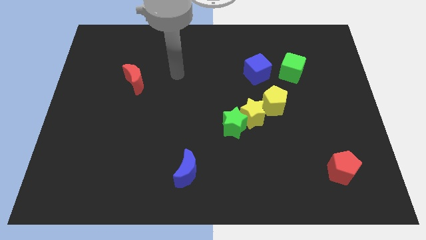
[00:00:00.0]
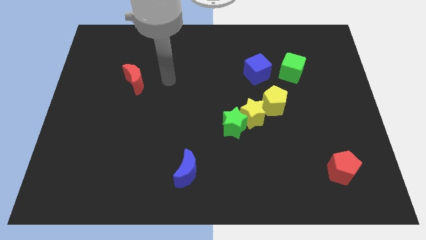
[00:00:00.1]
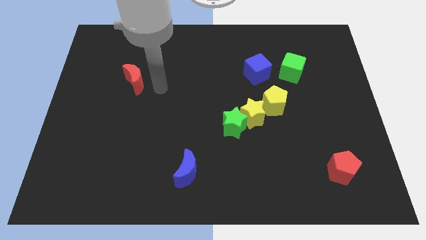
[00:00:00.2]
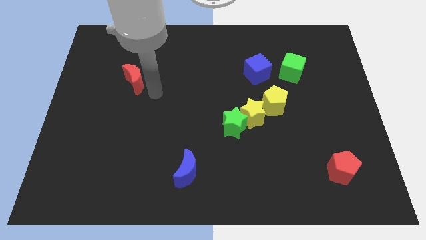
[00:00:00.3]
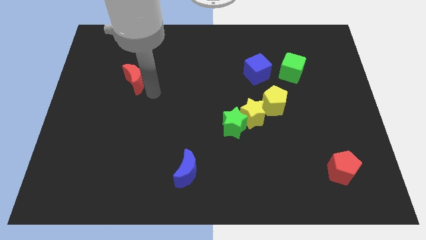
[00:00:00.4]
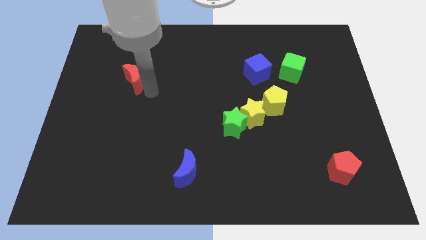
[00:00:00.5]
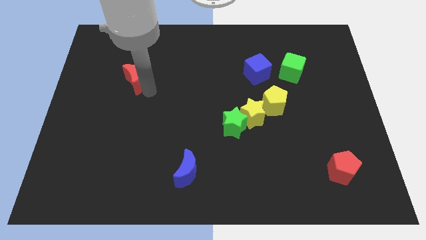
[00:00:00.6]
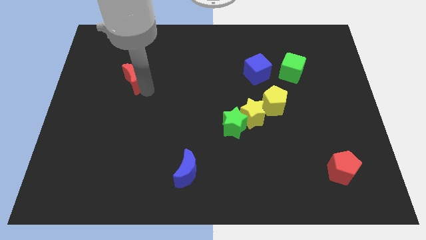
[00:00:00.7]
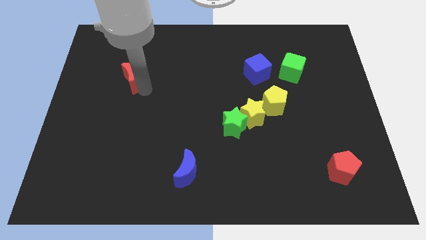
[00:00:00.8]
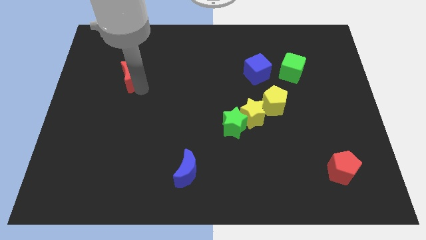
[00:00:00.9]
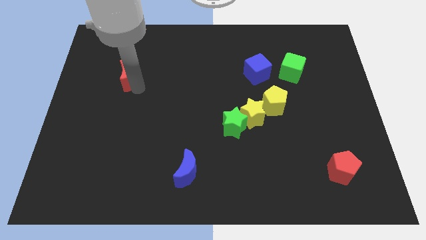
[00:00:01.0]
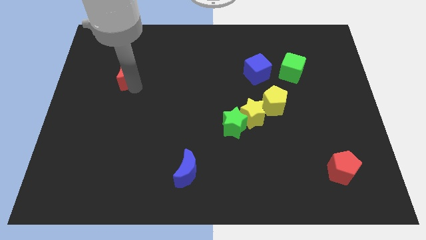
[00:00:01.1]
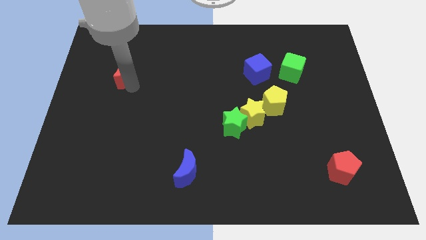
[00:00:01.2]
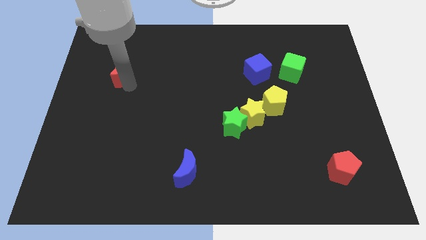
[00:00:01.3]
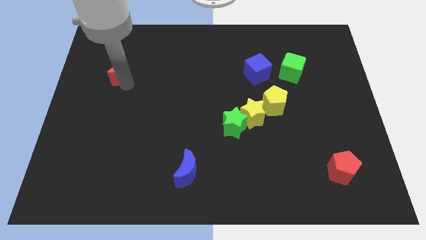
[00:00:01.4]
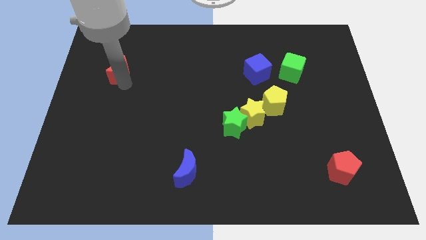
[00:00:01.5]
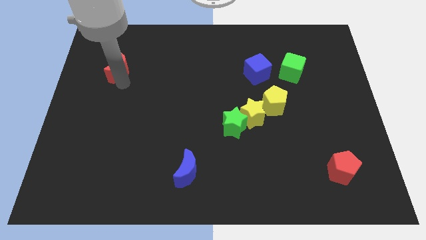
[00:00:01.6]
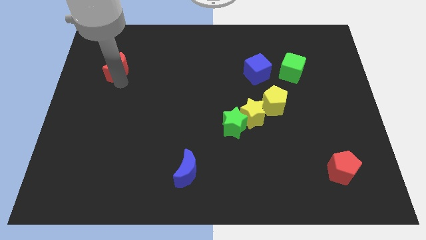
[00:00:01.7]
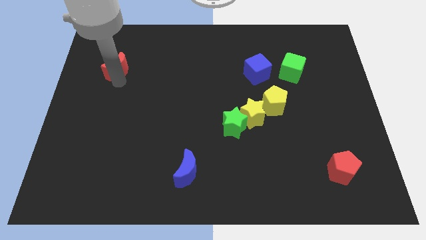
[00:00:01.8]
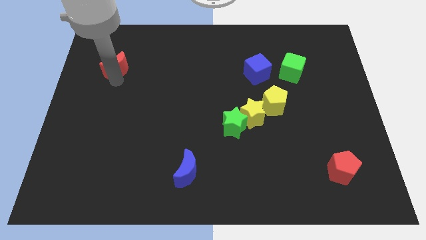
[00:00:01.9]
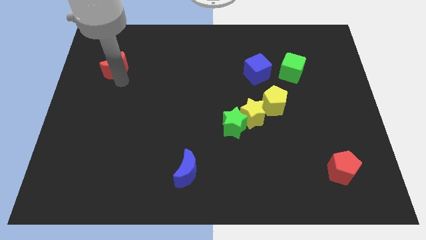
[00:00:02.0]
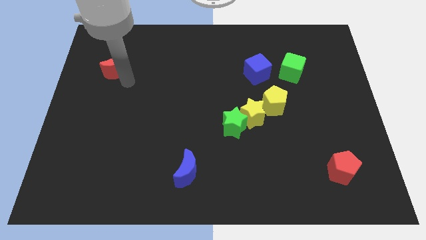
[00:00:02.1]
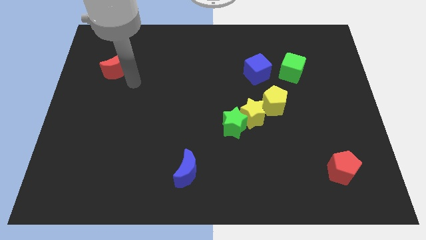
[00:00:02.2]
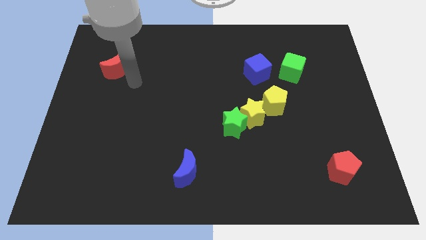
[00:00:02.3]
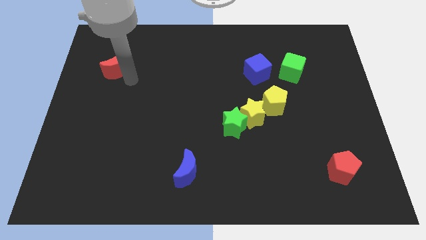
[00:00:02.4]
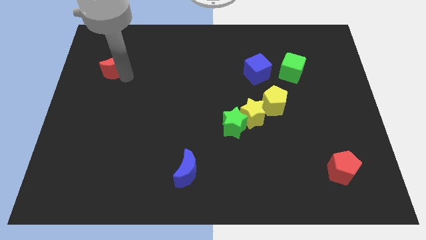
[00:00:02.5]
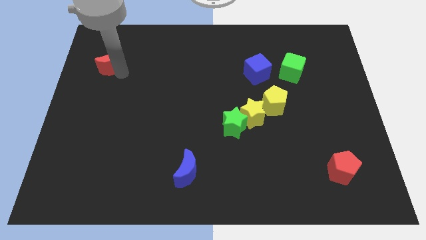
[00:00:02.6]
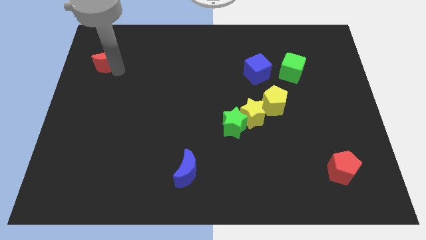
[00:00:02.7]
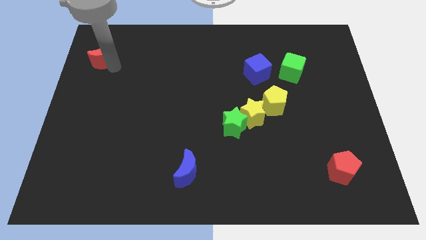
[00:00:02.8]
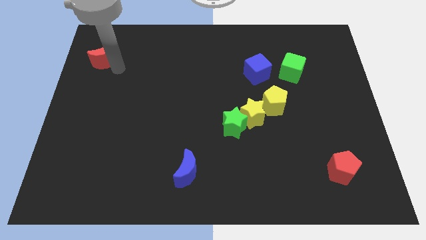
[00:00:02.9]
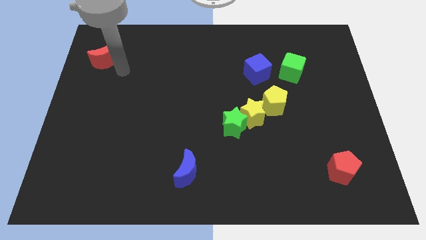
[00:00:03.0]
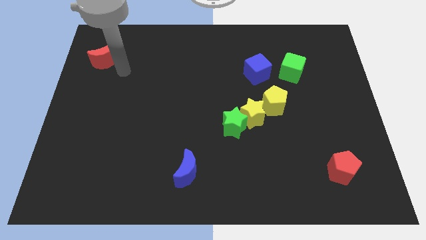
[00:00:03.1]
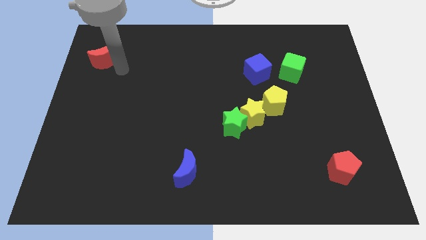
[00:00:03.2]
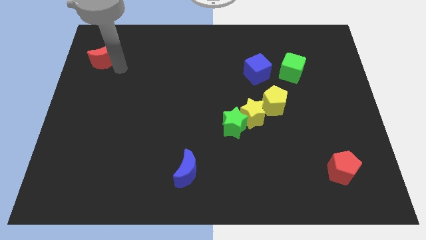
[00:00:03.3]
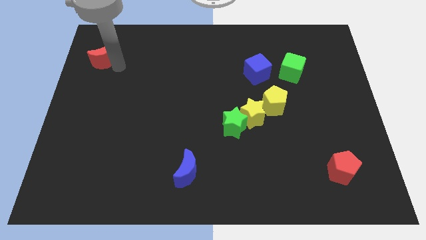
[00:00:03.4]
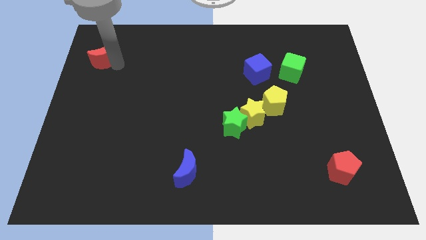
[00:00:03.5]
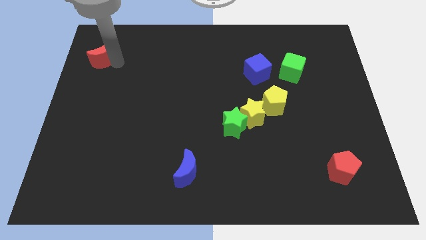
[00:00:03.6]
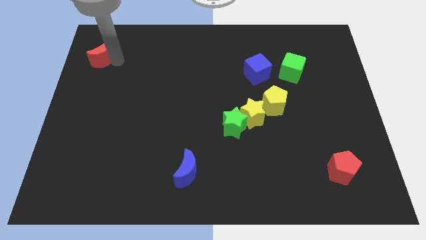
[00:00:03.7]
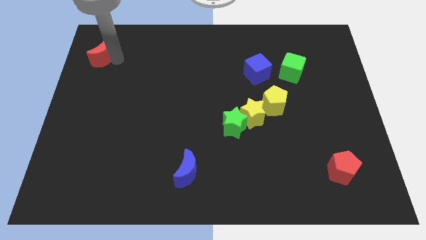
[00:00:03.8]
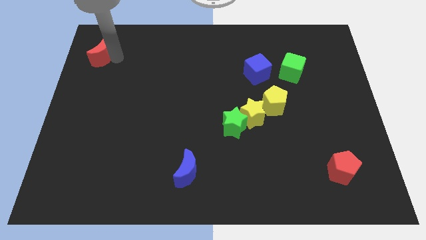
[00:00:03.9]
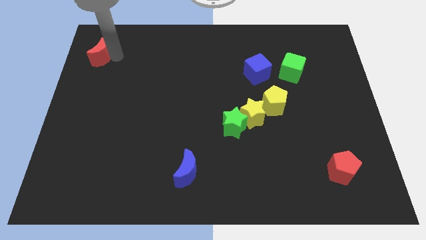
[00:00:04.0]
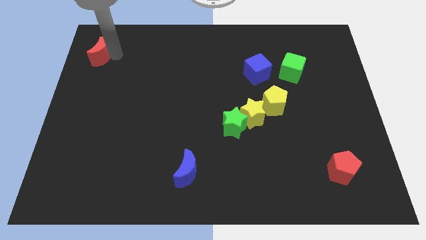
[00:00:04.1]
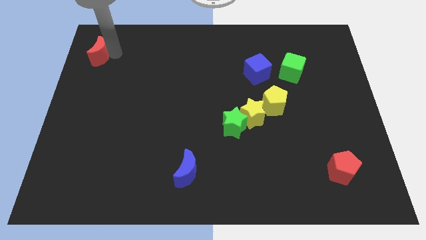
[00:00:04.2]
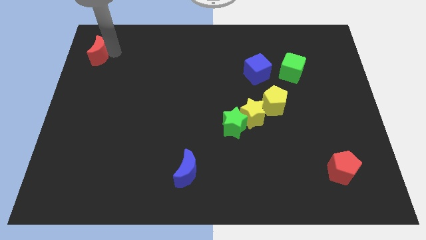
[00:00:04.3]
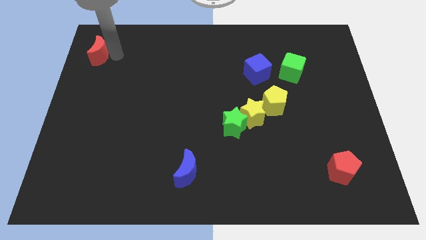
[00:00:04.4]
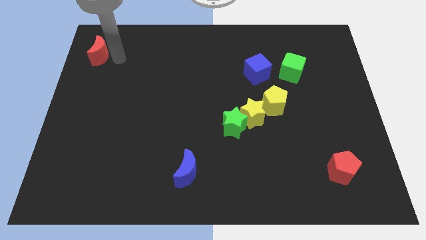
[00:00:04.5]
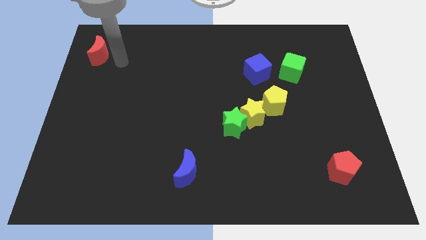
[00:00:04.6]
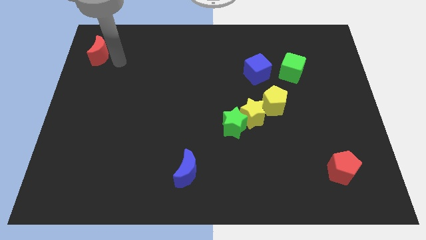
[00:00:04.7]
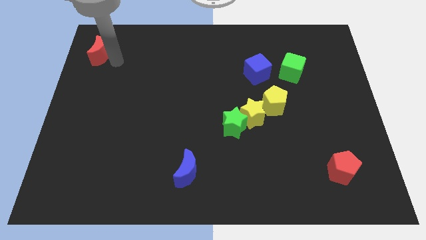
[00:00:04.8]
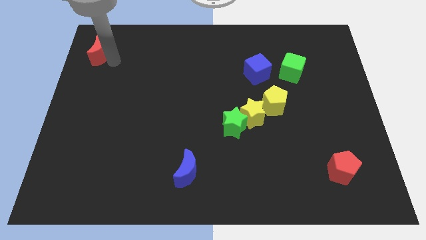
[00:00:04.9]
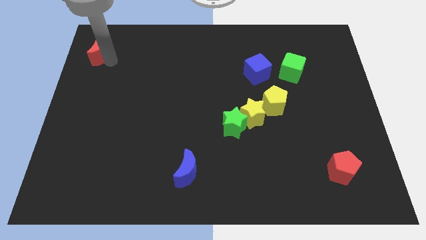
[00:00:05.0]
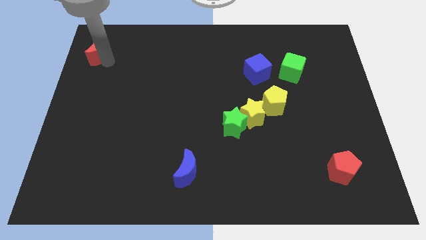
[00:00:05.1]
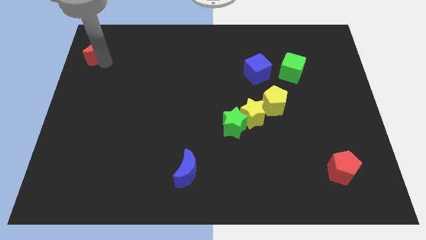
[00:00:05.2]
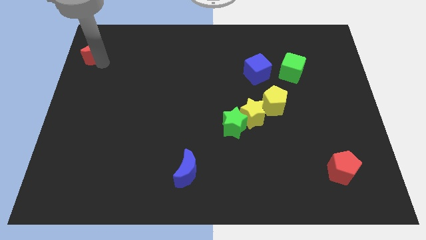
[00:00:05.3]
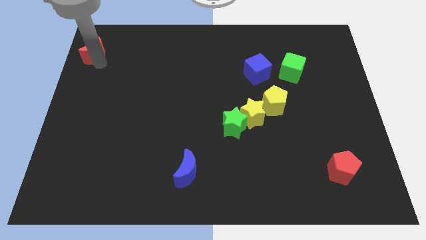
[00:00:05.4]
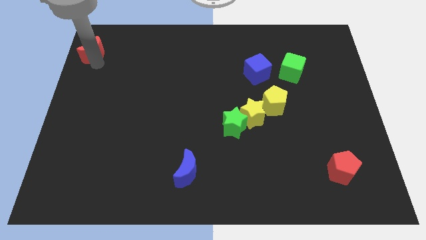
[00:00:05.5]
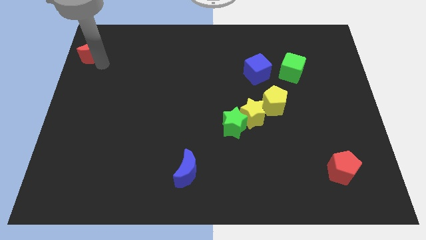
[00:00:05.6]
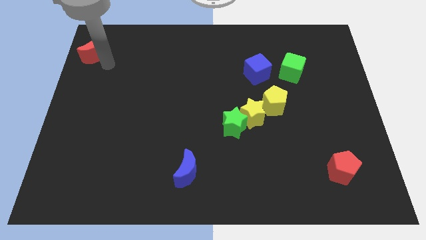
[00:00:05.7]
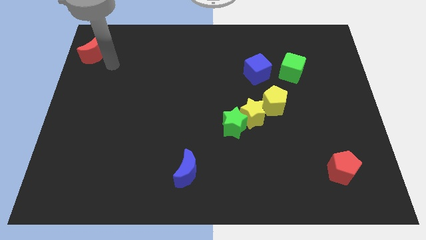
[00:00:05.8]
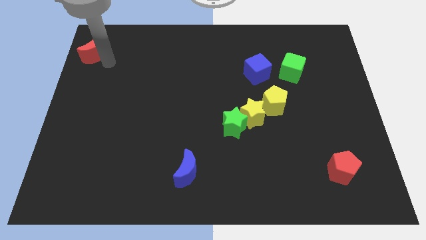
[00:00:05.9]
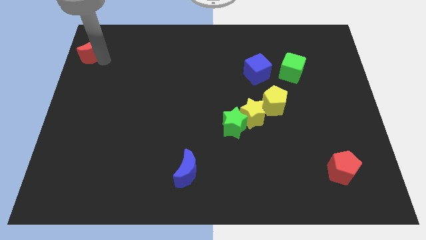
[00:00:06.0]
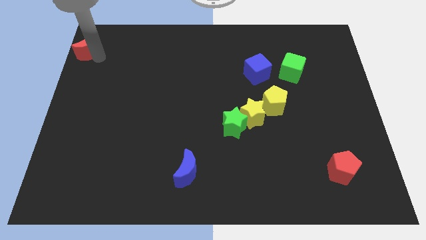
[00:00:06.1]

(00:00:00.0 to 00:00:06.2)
put the red moon to the upper left corner

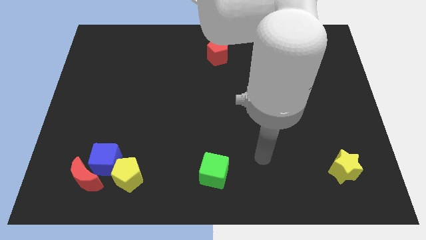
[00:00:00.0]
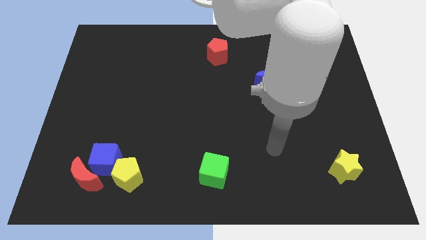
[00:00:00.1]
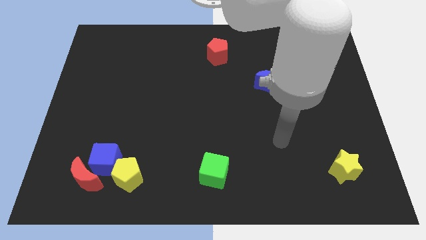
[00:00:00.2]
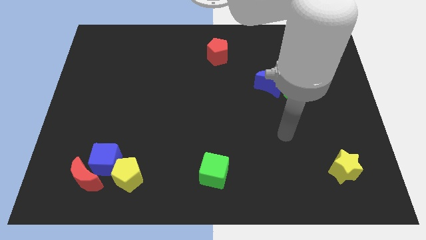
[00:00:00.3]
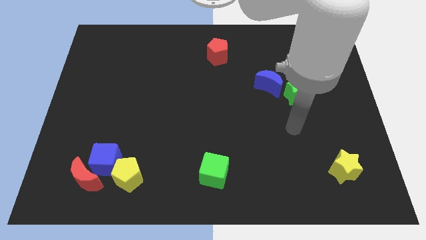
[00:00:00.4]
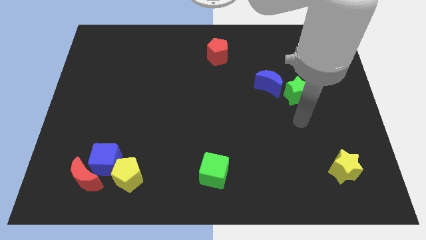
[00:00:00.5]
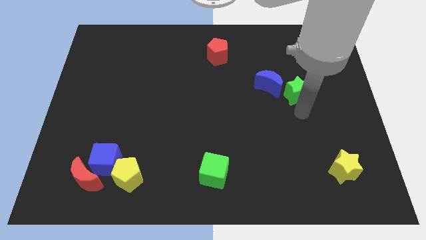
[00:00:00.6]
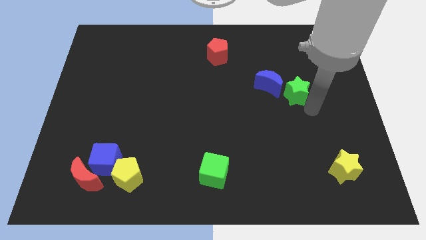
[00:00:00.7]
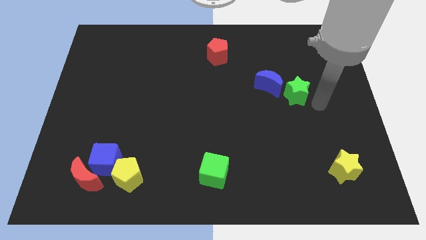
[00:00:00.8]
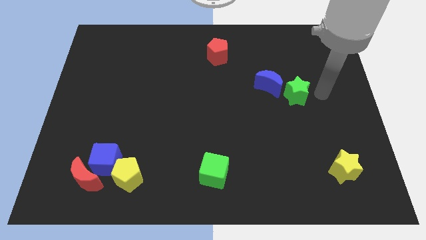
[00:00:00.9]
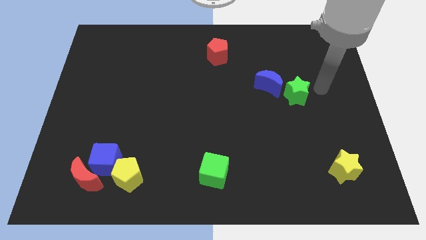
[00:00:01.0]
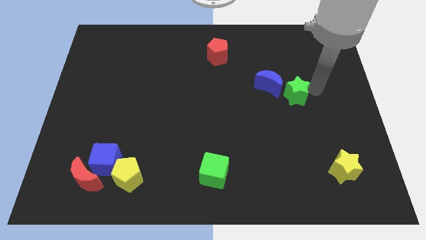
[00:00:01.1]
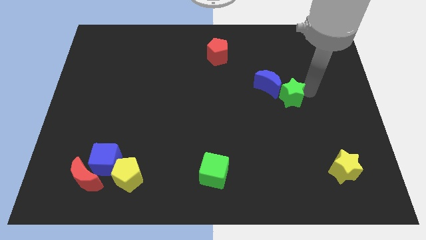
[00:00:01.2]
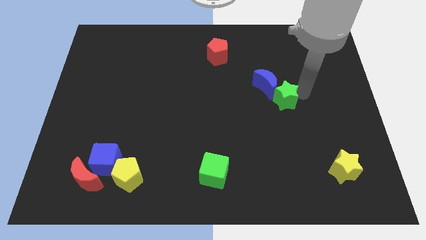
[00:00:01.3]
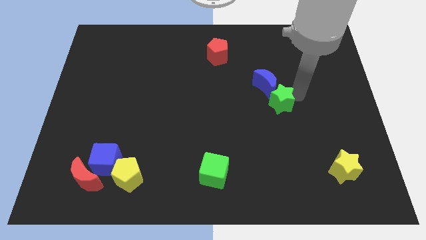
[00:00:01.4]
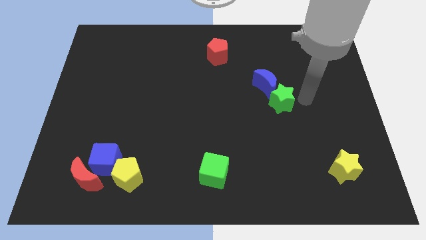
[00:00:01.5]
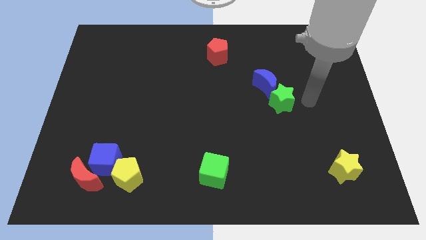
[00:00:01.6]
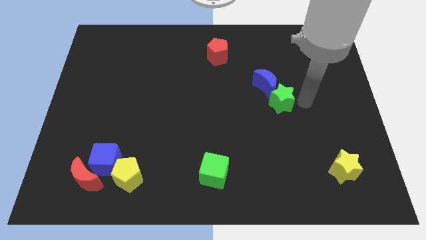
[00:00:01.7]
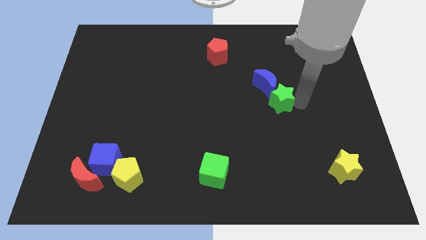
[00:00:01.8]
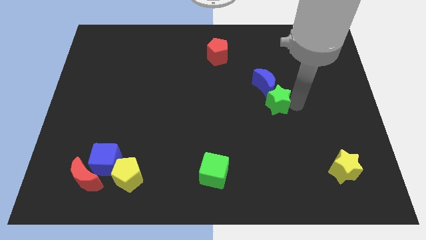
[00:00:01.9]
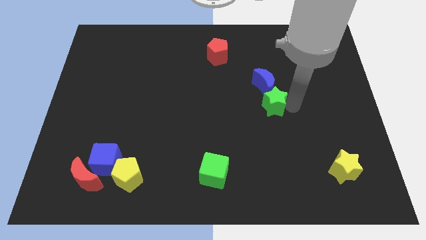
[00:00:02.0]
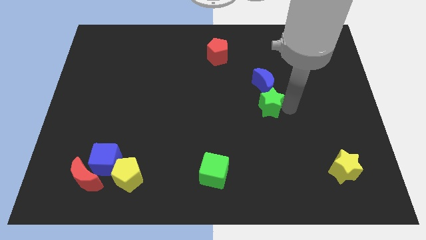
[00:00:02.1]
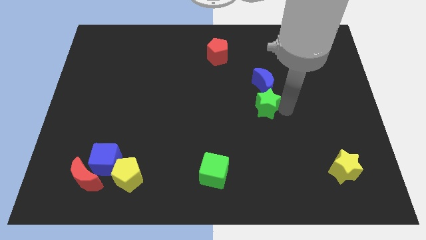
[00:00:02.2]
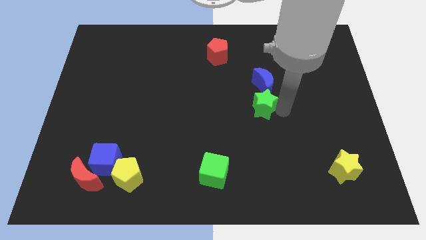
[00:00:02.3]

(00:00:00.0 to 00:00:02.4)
push the green star to the middle

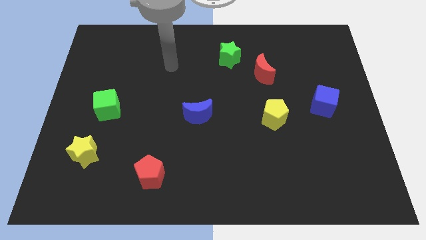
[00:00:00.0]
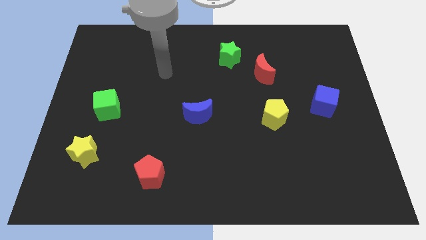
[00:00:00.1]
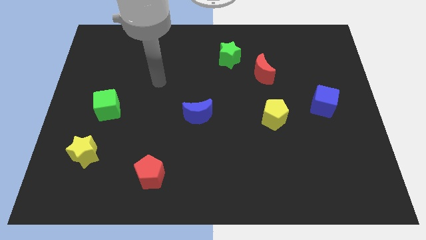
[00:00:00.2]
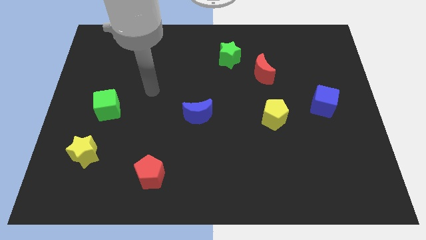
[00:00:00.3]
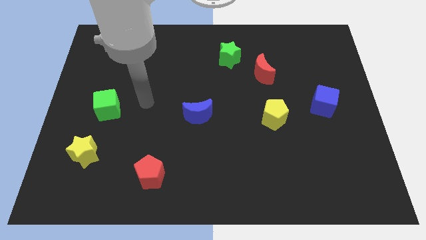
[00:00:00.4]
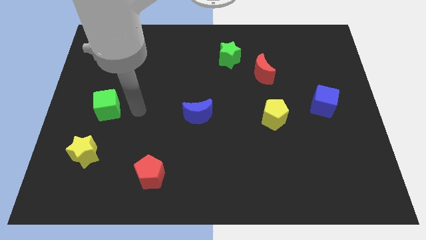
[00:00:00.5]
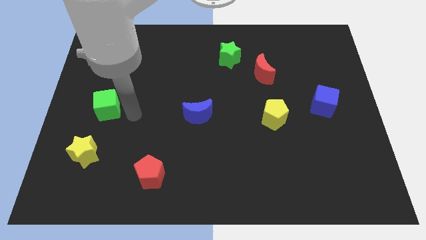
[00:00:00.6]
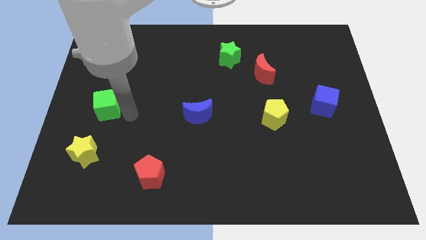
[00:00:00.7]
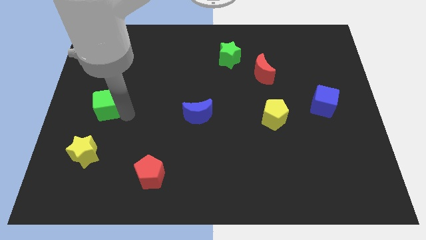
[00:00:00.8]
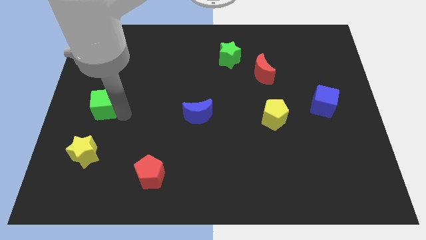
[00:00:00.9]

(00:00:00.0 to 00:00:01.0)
move the green cube to the left side
